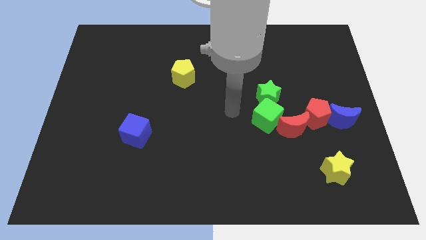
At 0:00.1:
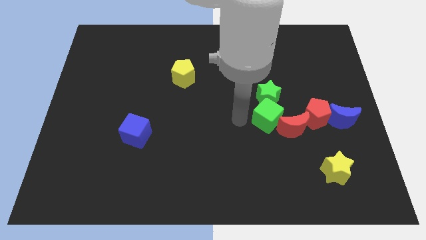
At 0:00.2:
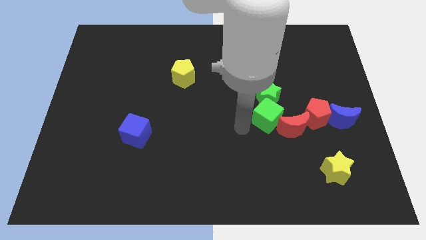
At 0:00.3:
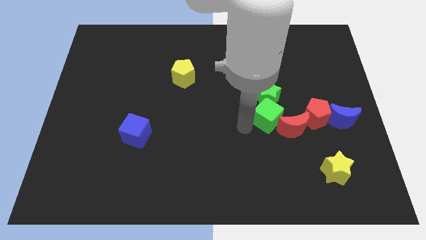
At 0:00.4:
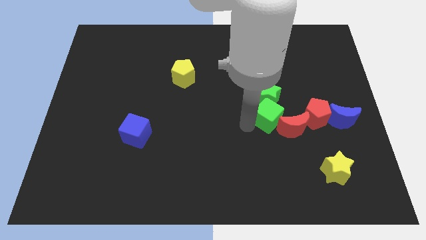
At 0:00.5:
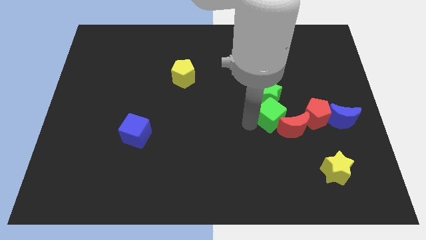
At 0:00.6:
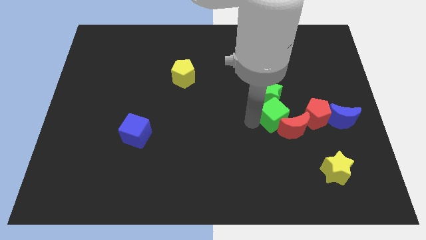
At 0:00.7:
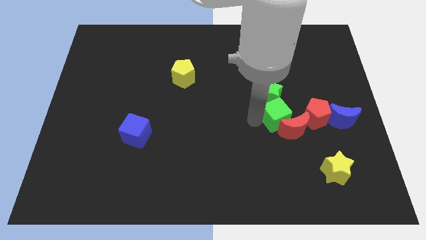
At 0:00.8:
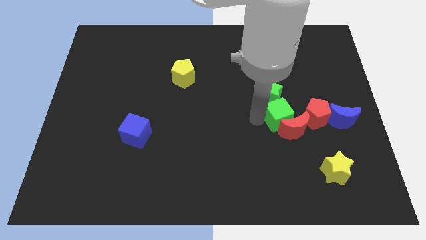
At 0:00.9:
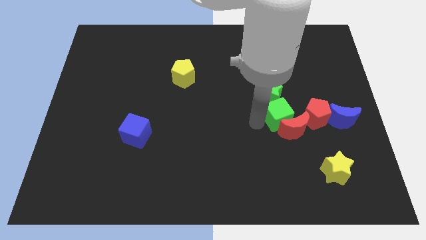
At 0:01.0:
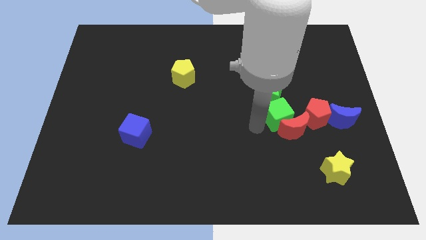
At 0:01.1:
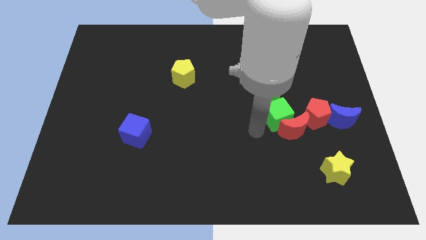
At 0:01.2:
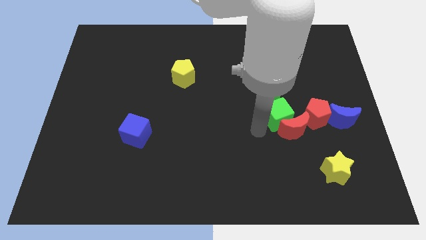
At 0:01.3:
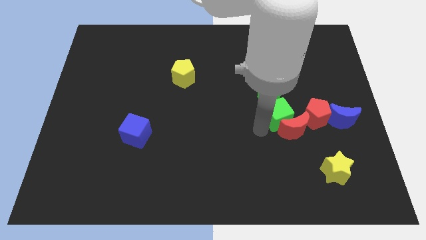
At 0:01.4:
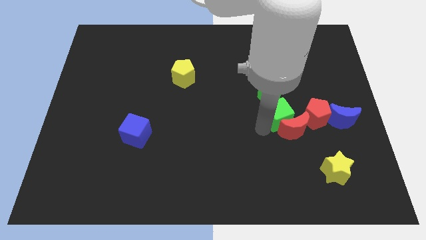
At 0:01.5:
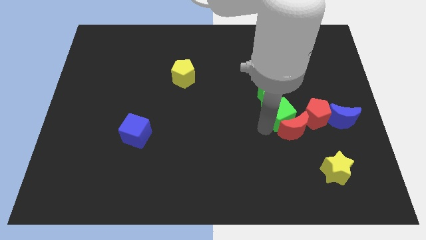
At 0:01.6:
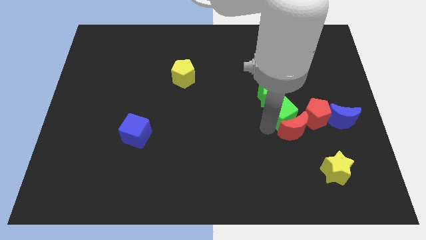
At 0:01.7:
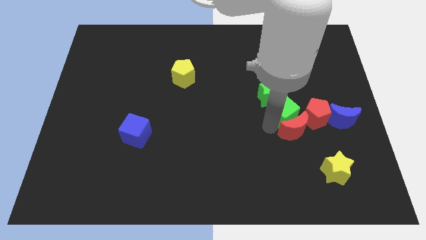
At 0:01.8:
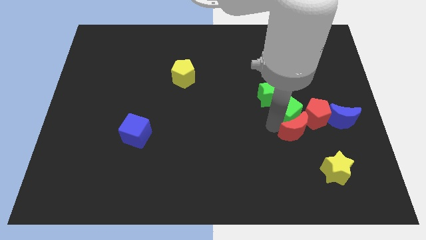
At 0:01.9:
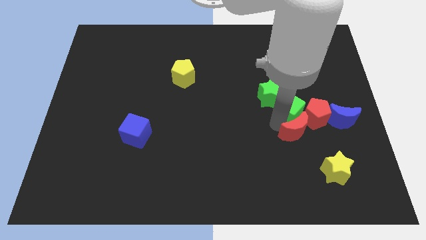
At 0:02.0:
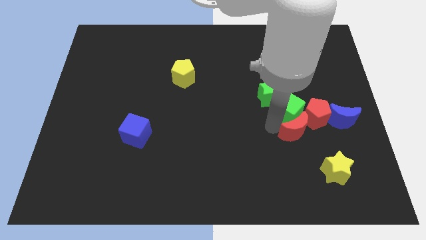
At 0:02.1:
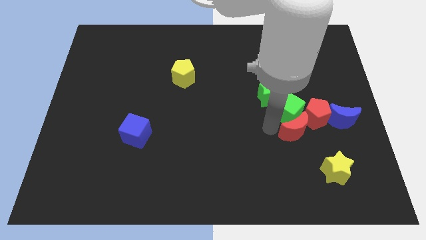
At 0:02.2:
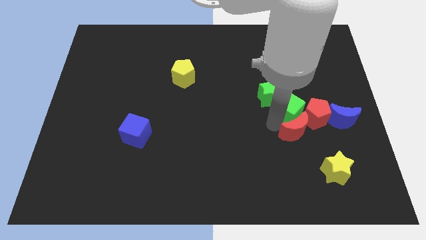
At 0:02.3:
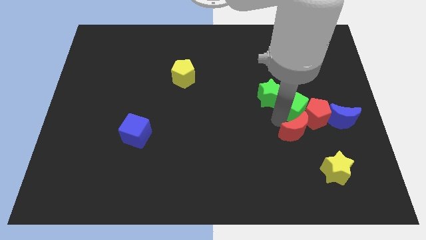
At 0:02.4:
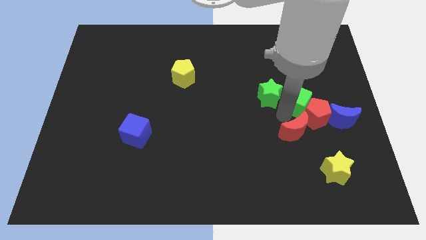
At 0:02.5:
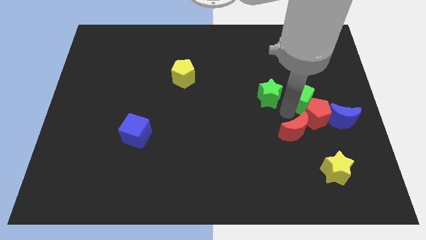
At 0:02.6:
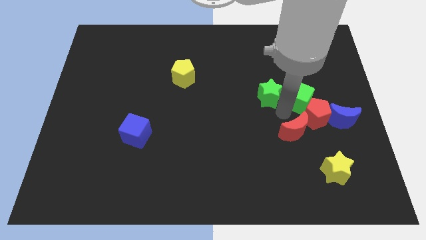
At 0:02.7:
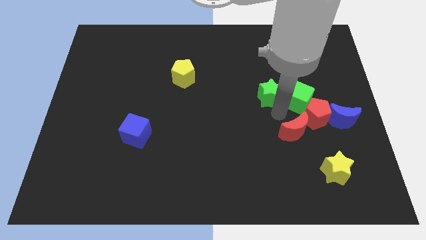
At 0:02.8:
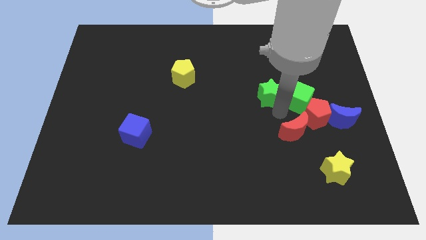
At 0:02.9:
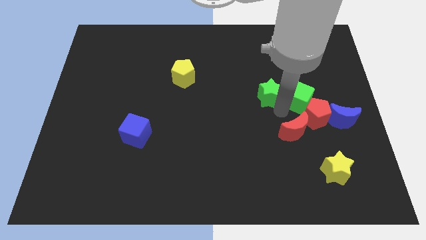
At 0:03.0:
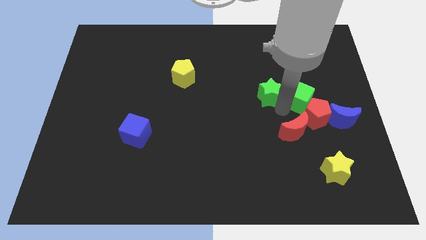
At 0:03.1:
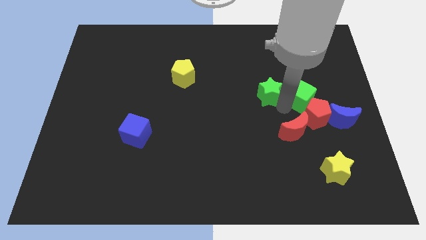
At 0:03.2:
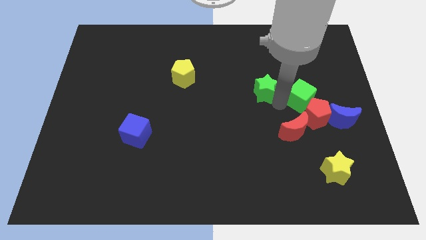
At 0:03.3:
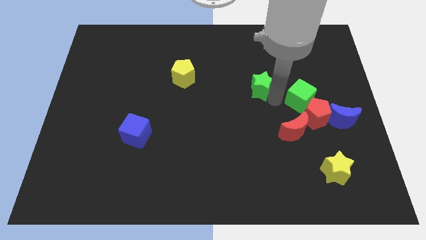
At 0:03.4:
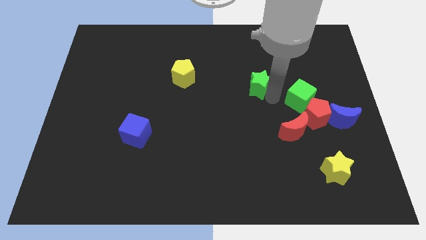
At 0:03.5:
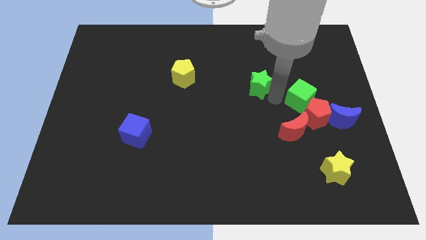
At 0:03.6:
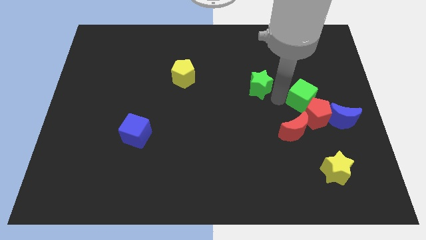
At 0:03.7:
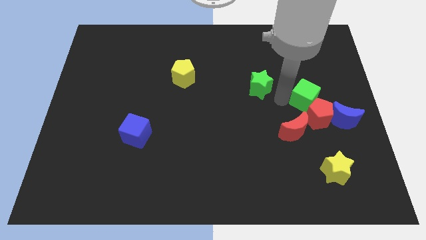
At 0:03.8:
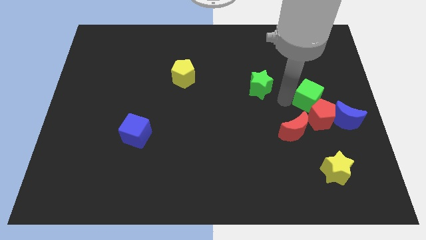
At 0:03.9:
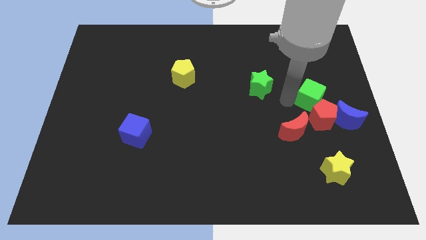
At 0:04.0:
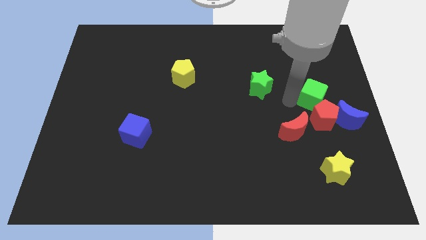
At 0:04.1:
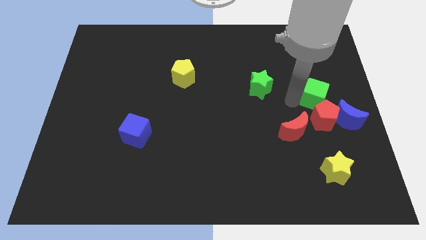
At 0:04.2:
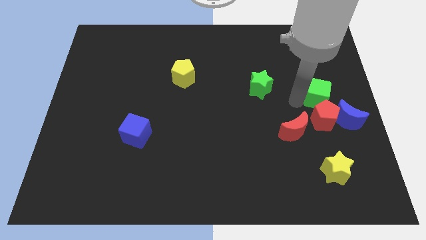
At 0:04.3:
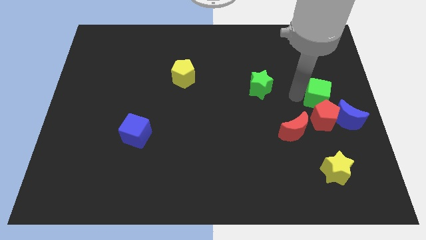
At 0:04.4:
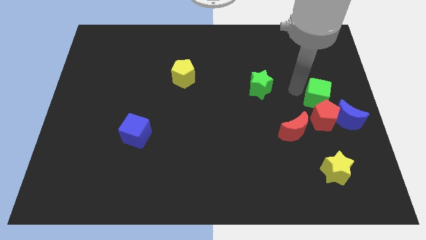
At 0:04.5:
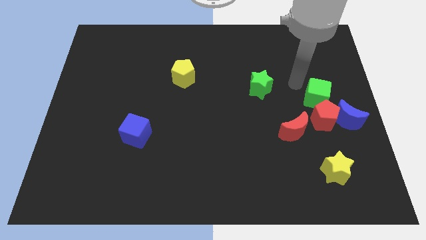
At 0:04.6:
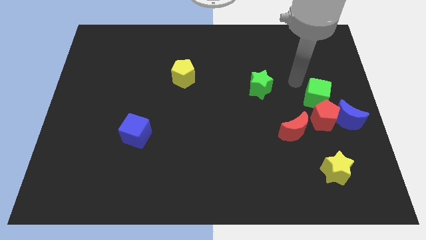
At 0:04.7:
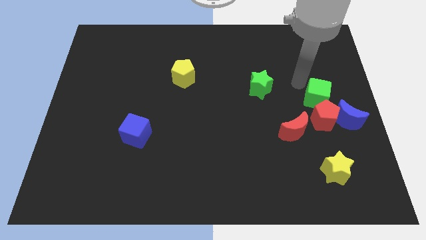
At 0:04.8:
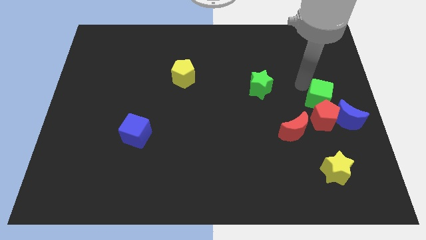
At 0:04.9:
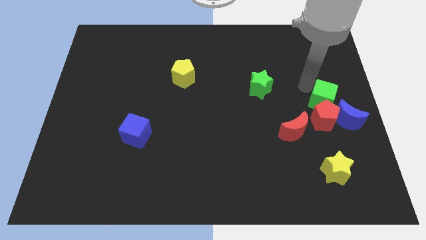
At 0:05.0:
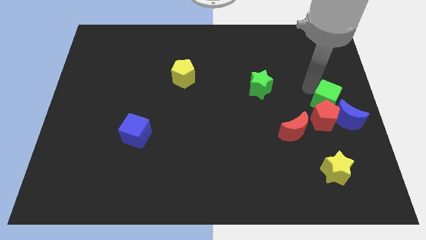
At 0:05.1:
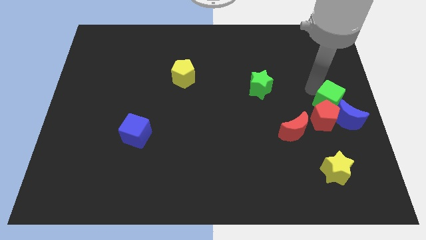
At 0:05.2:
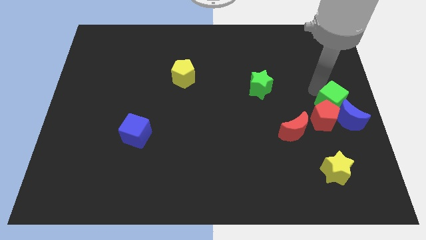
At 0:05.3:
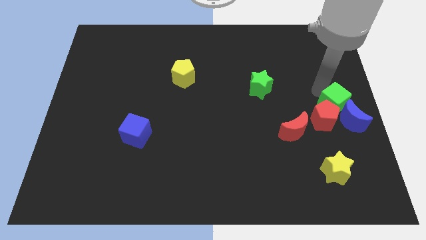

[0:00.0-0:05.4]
slide the green cube close to the blue moon

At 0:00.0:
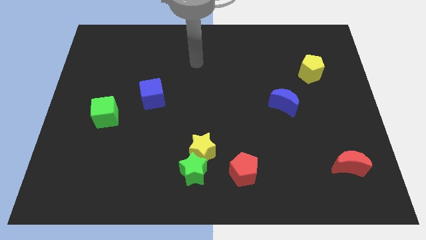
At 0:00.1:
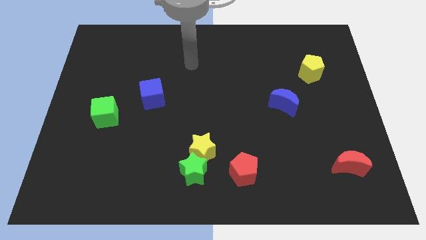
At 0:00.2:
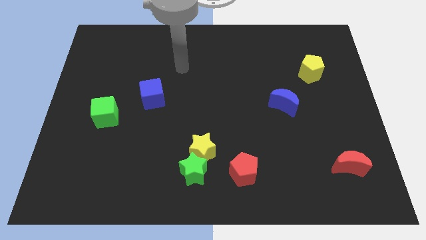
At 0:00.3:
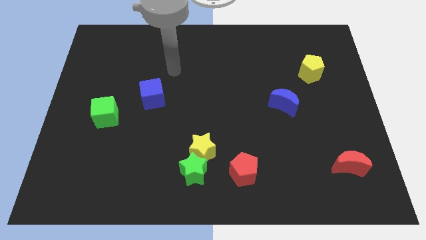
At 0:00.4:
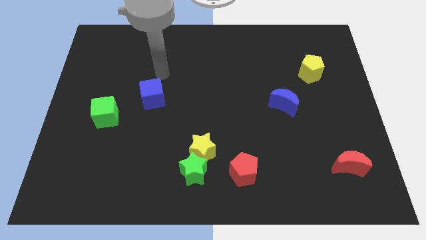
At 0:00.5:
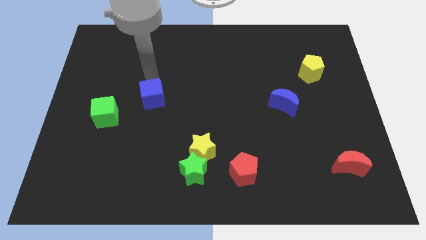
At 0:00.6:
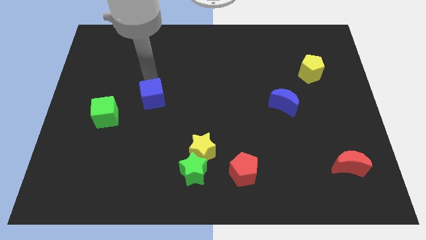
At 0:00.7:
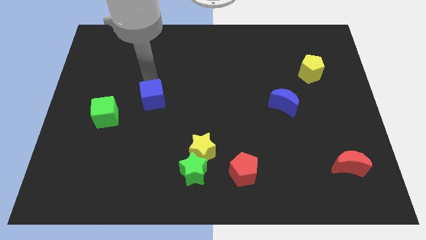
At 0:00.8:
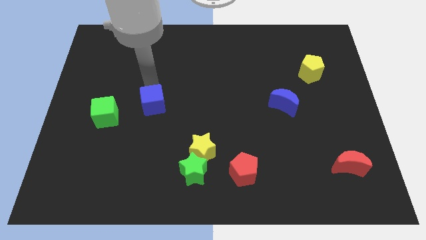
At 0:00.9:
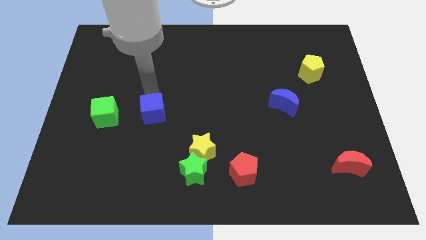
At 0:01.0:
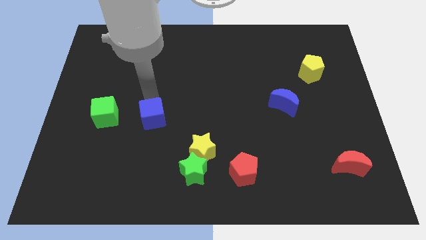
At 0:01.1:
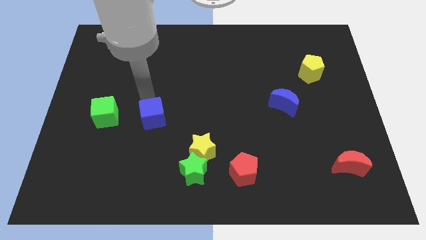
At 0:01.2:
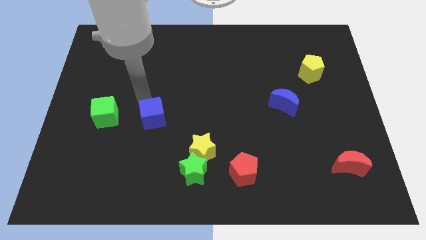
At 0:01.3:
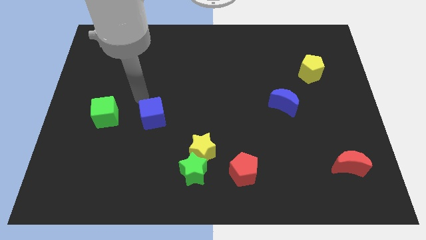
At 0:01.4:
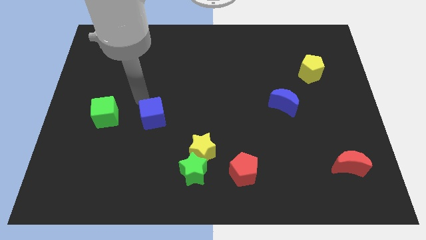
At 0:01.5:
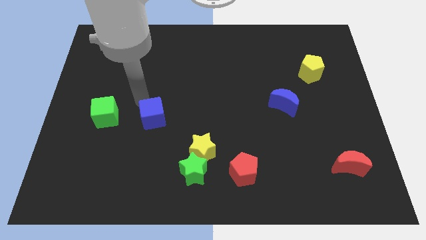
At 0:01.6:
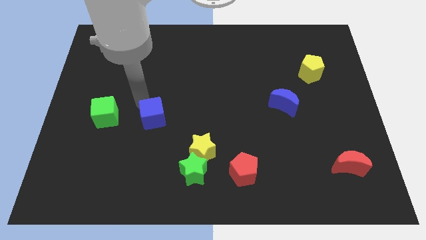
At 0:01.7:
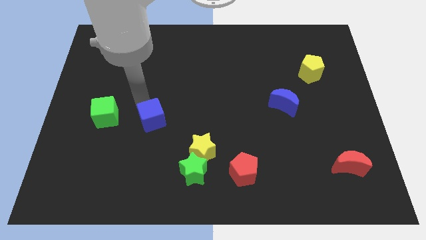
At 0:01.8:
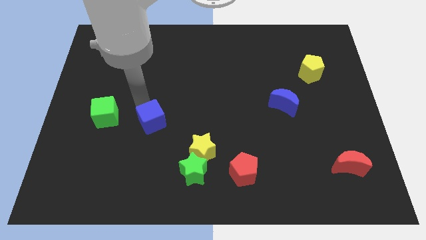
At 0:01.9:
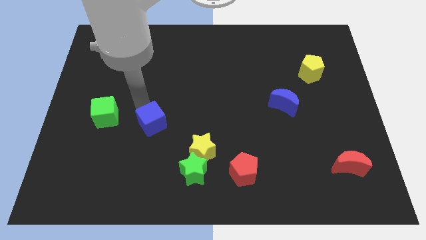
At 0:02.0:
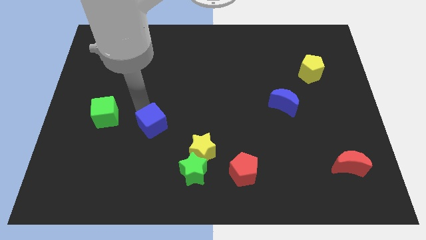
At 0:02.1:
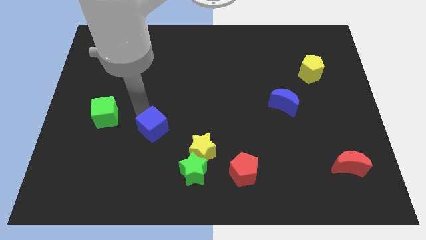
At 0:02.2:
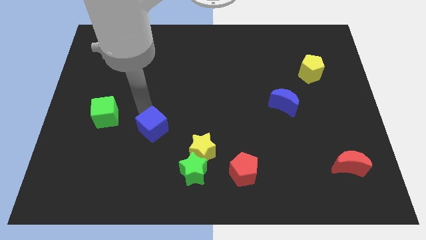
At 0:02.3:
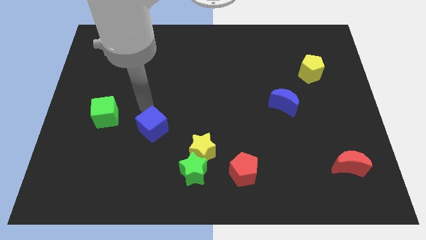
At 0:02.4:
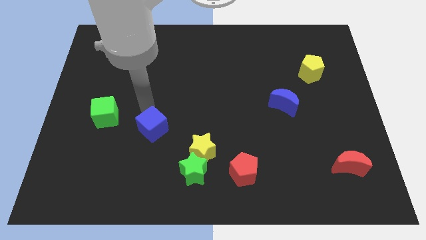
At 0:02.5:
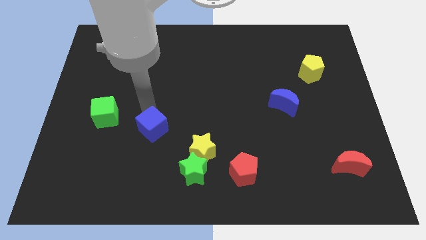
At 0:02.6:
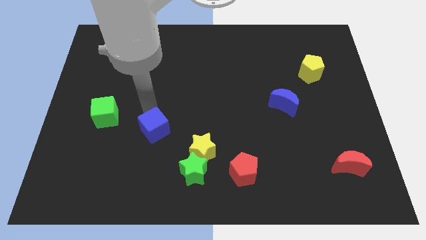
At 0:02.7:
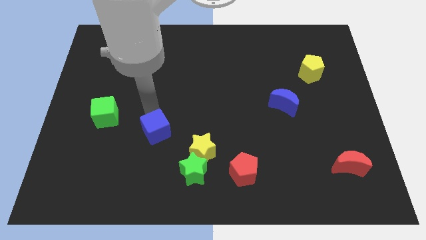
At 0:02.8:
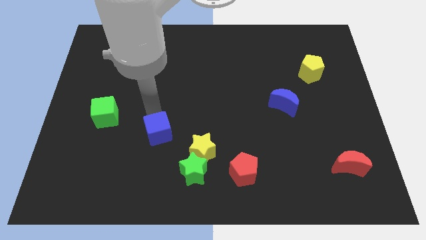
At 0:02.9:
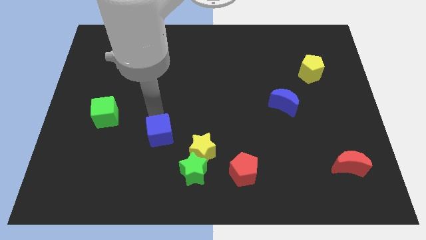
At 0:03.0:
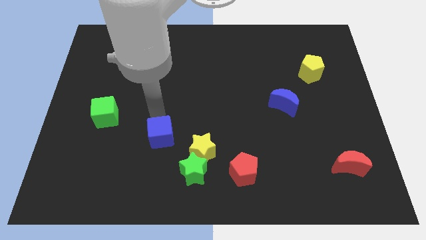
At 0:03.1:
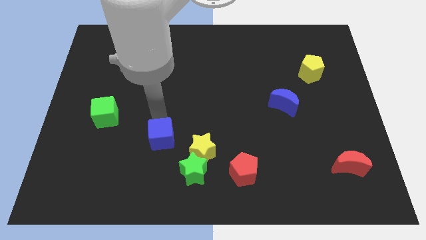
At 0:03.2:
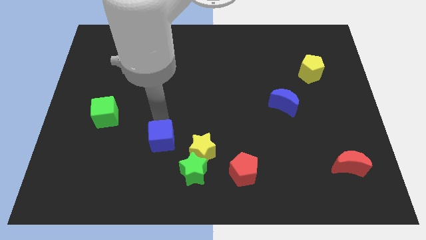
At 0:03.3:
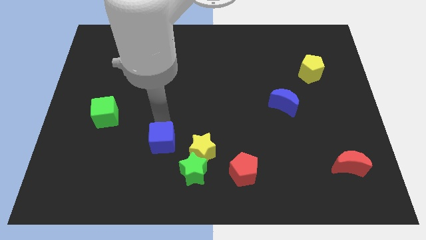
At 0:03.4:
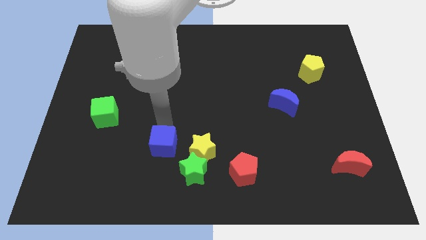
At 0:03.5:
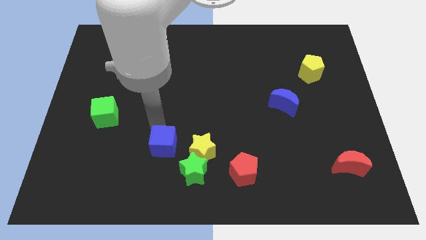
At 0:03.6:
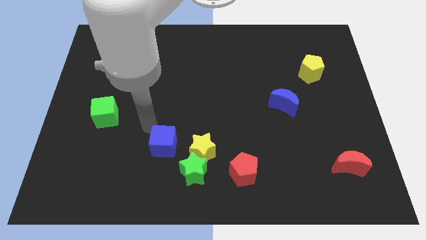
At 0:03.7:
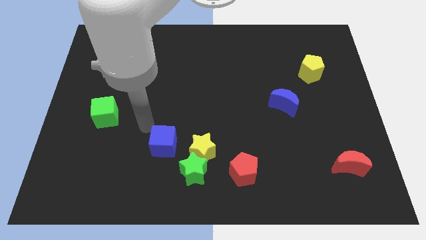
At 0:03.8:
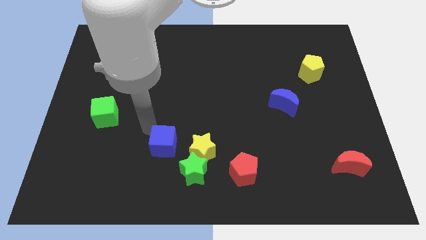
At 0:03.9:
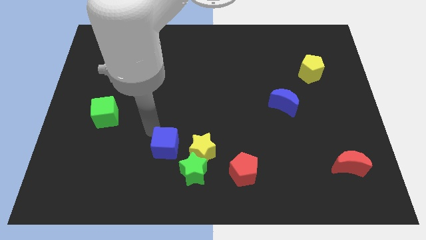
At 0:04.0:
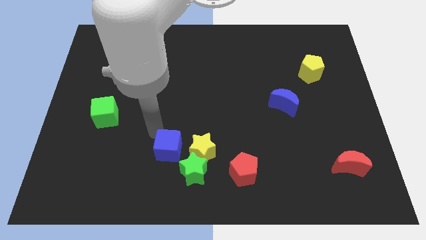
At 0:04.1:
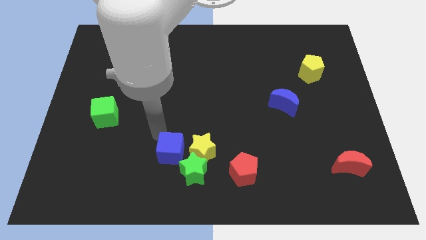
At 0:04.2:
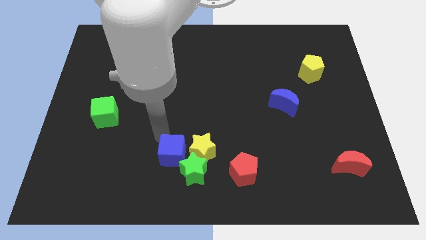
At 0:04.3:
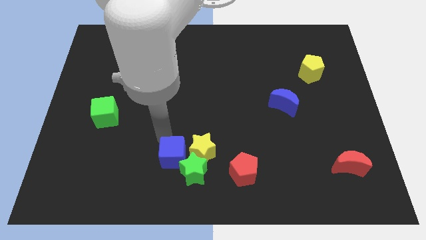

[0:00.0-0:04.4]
put the blue cube close to the green star
